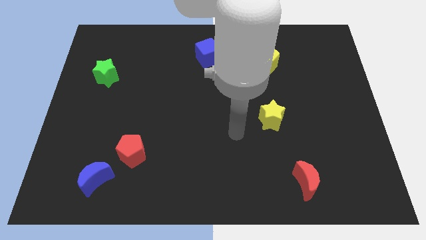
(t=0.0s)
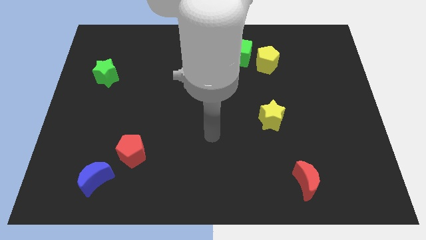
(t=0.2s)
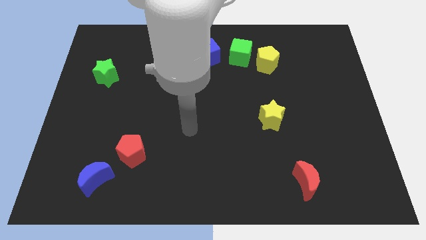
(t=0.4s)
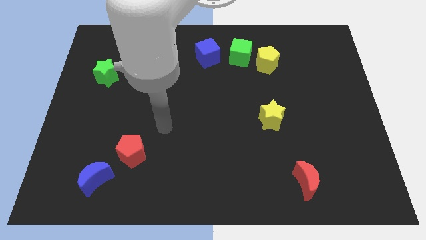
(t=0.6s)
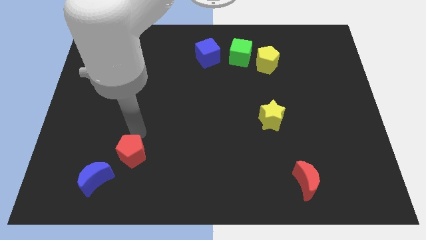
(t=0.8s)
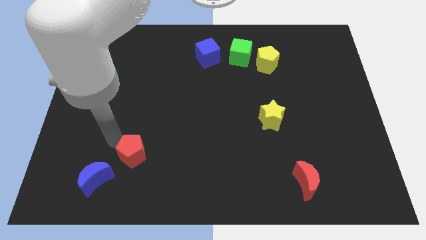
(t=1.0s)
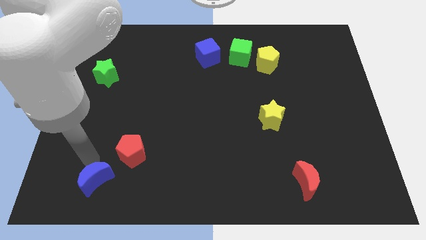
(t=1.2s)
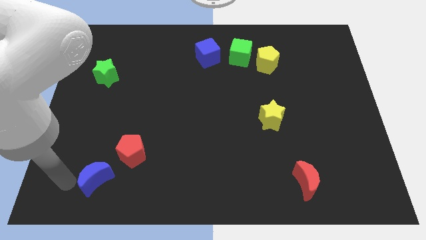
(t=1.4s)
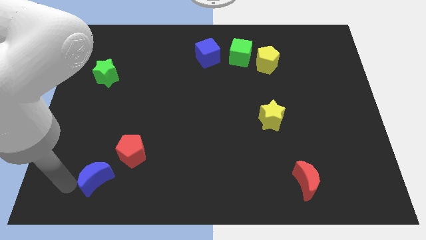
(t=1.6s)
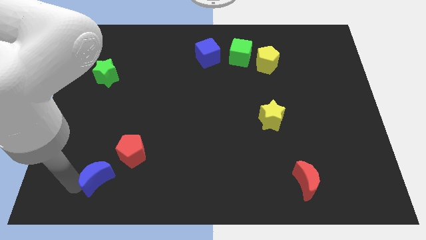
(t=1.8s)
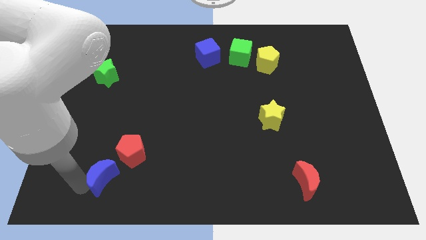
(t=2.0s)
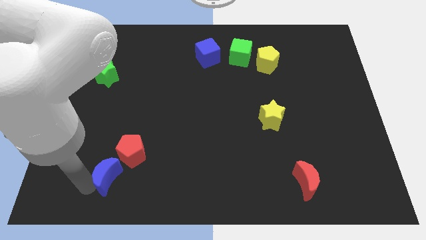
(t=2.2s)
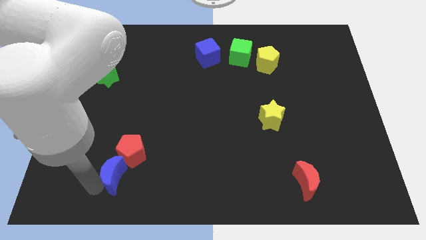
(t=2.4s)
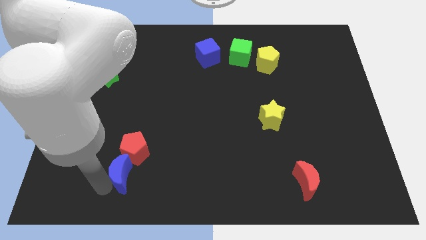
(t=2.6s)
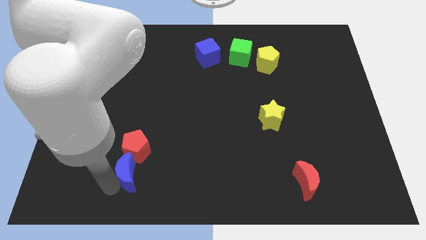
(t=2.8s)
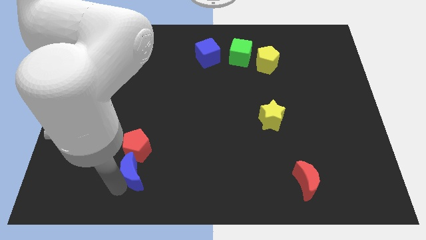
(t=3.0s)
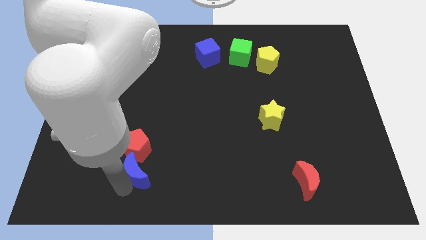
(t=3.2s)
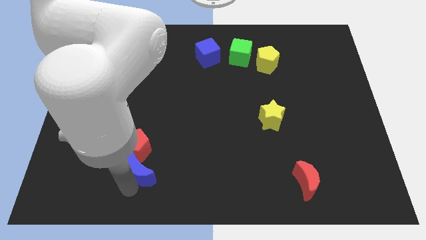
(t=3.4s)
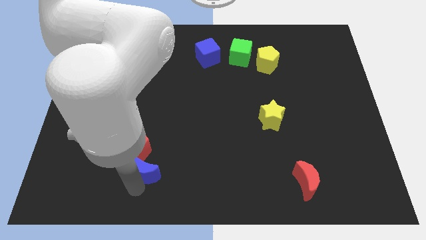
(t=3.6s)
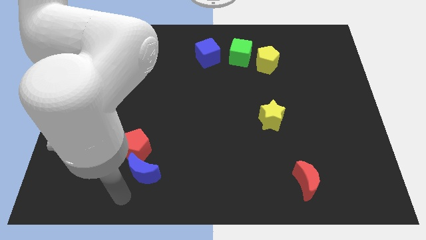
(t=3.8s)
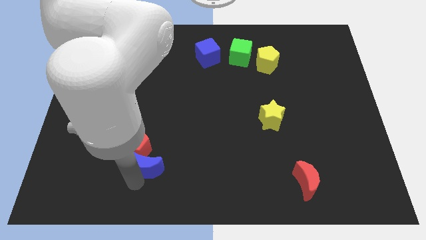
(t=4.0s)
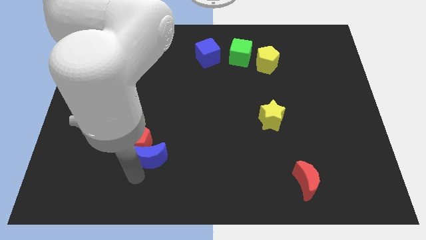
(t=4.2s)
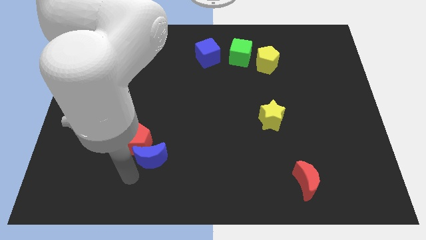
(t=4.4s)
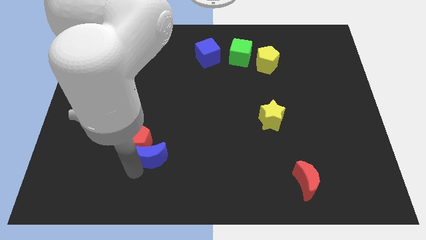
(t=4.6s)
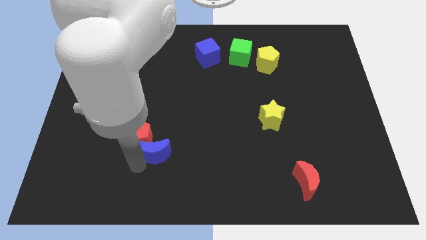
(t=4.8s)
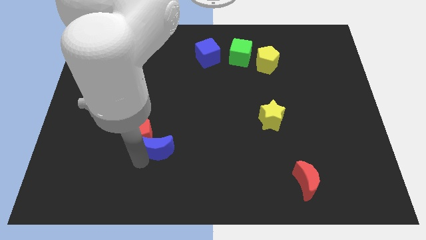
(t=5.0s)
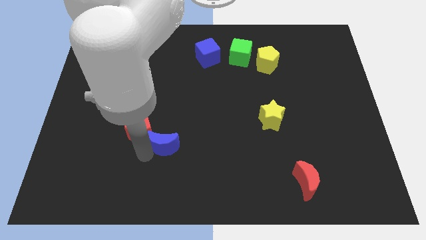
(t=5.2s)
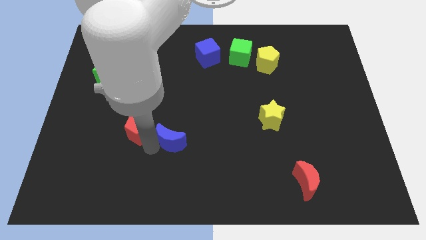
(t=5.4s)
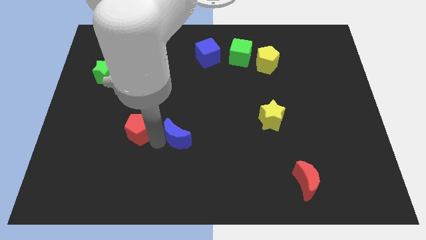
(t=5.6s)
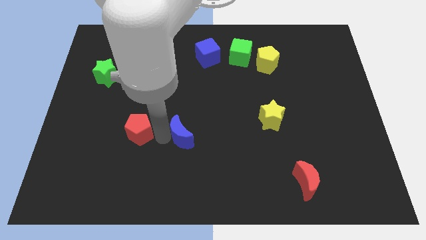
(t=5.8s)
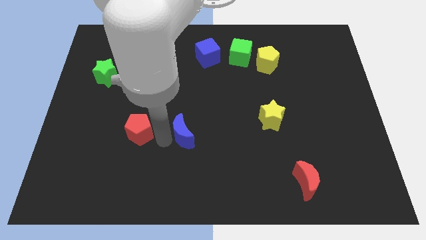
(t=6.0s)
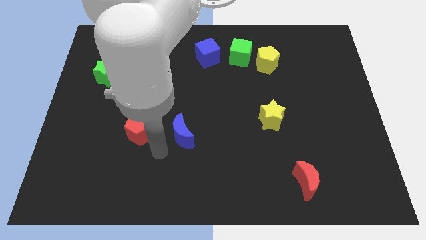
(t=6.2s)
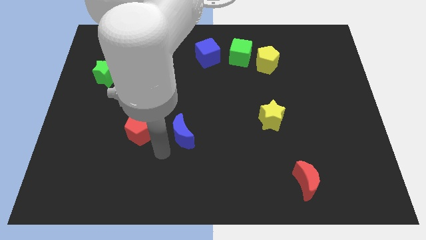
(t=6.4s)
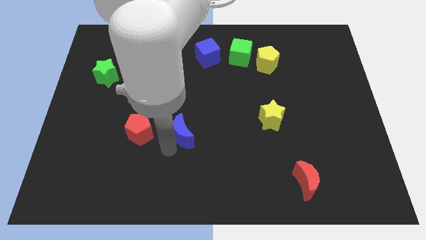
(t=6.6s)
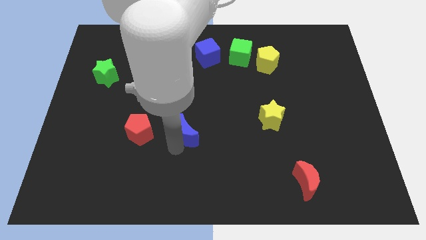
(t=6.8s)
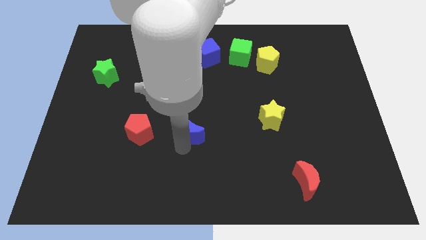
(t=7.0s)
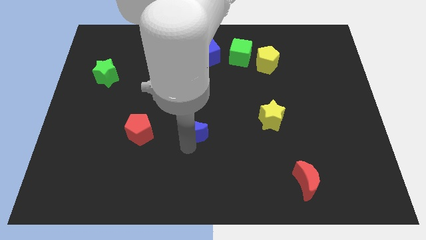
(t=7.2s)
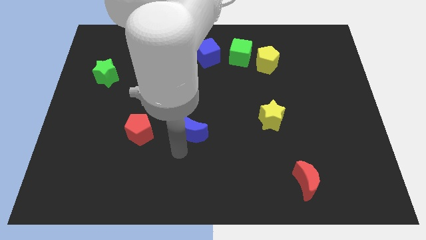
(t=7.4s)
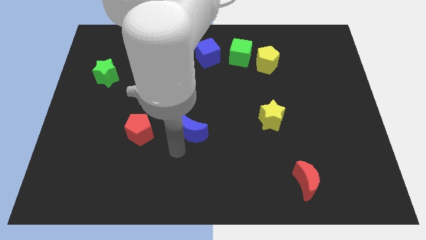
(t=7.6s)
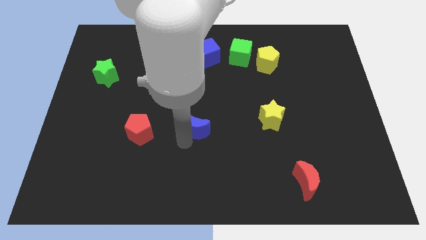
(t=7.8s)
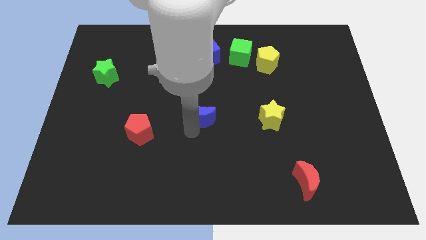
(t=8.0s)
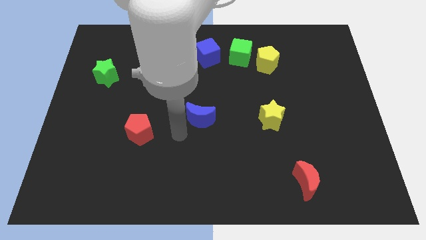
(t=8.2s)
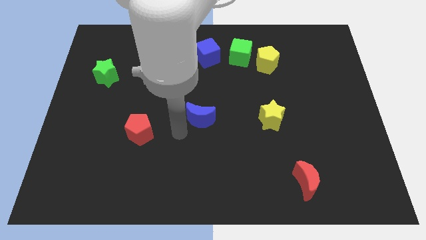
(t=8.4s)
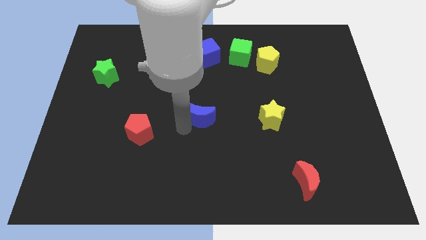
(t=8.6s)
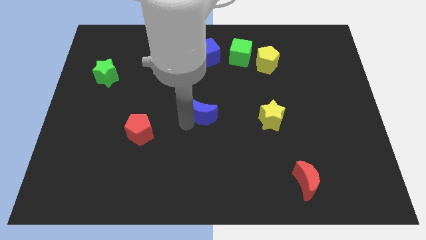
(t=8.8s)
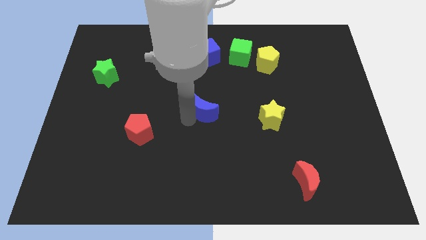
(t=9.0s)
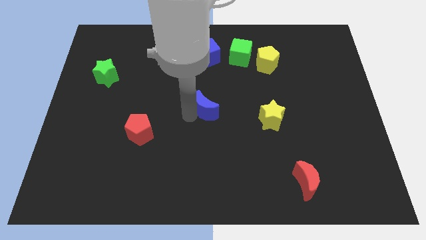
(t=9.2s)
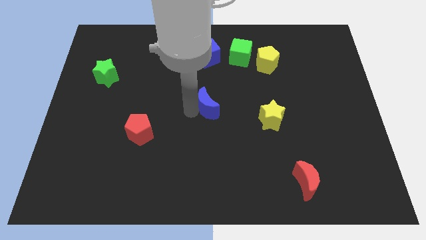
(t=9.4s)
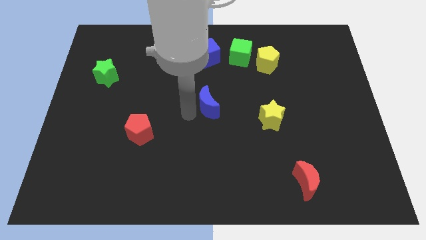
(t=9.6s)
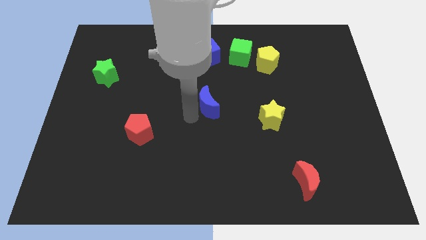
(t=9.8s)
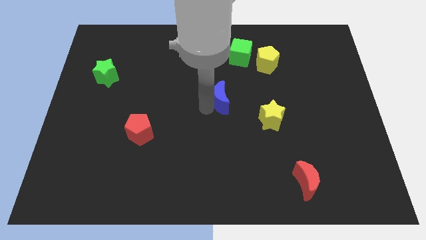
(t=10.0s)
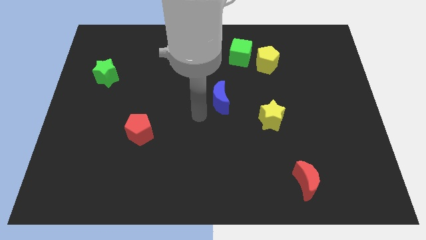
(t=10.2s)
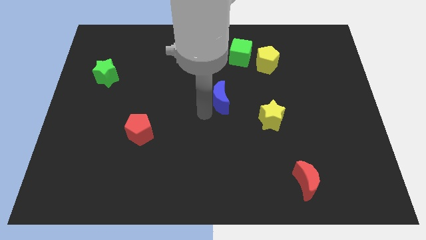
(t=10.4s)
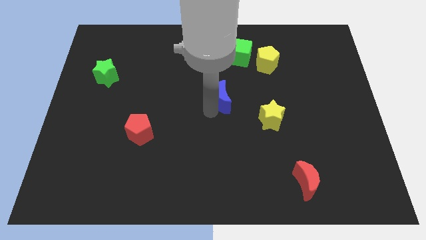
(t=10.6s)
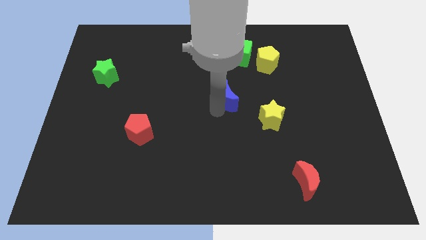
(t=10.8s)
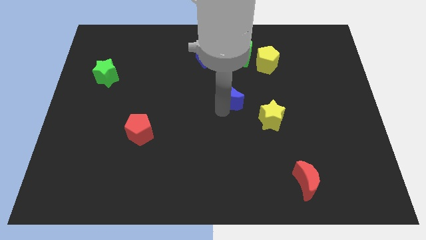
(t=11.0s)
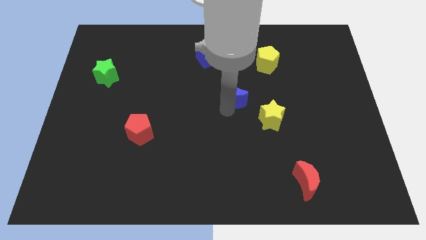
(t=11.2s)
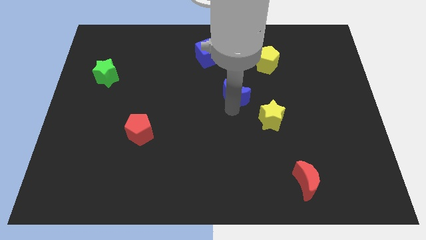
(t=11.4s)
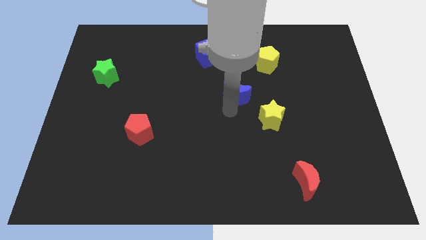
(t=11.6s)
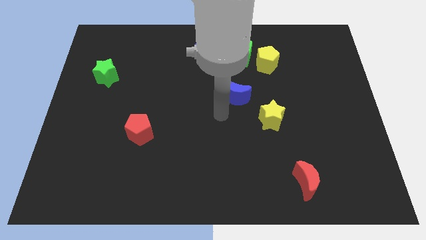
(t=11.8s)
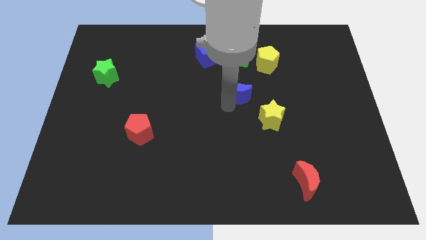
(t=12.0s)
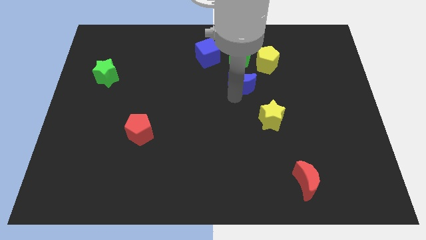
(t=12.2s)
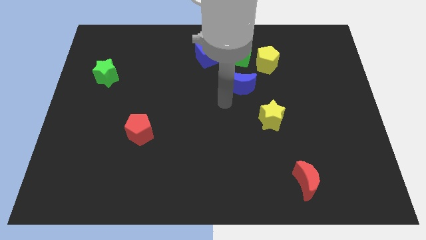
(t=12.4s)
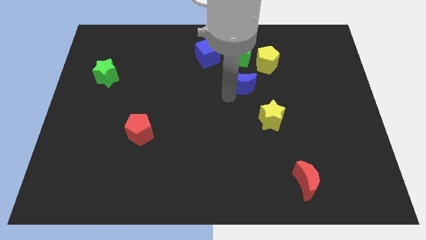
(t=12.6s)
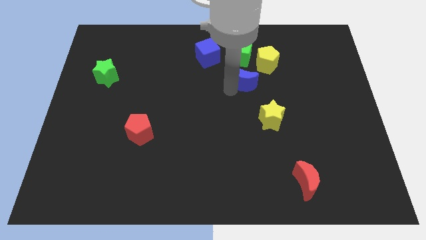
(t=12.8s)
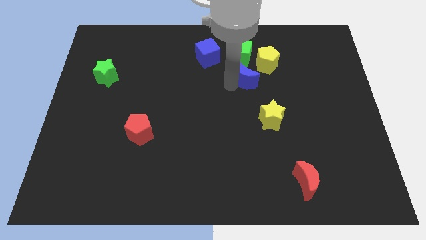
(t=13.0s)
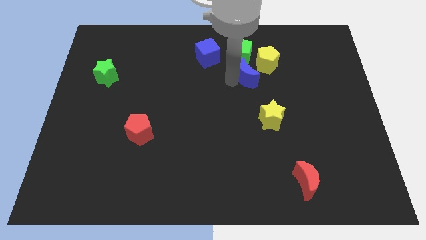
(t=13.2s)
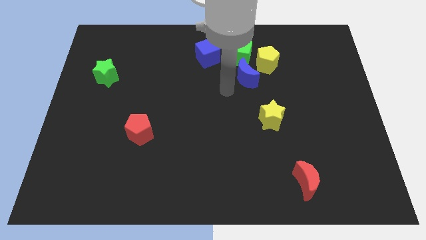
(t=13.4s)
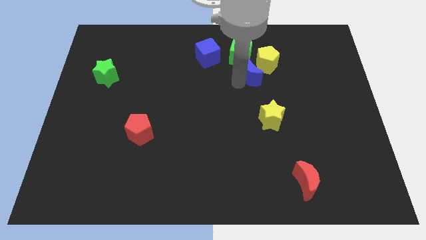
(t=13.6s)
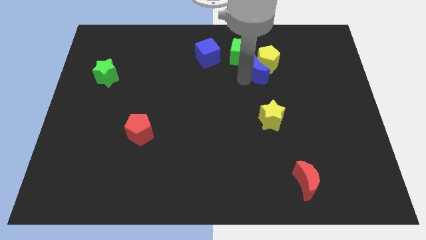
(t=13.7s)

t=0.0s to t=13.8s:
move the blue moon next to the yellow pentagon
